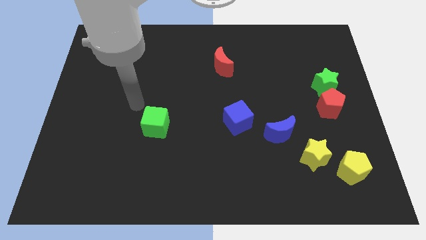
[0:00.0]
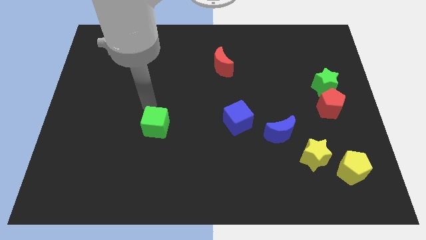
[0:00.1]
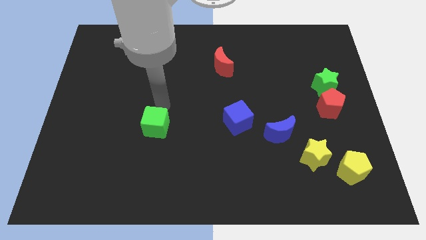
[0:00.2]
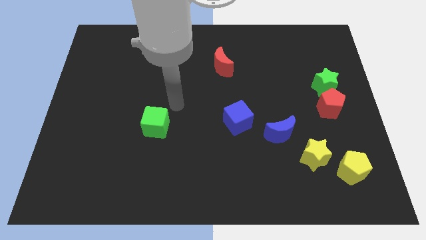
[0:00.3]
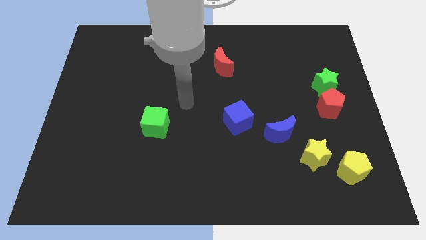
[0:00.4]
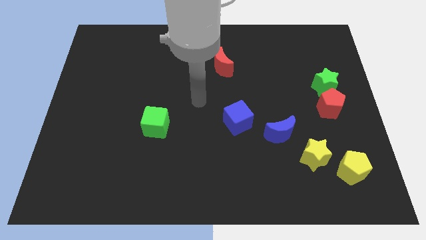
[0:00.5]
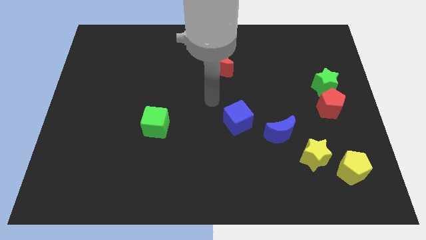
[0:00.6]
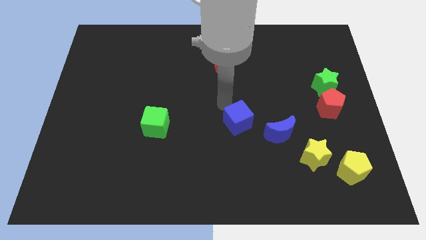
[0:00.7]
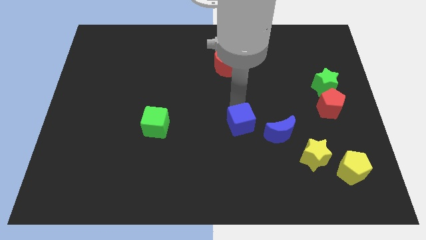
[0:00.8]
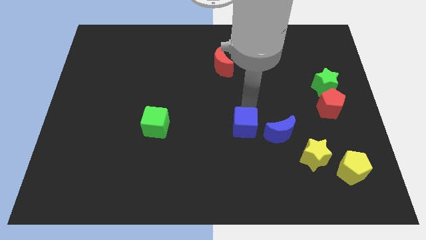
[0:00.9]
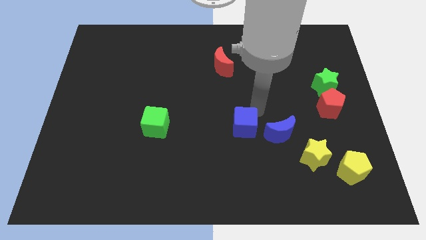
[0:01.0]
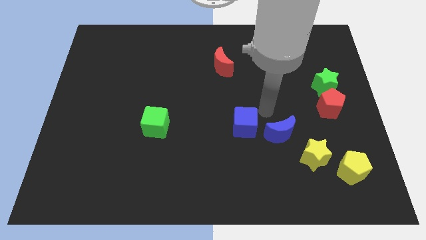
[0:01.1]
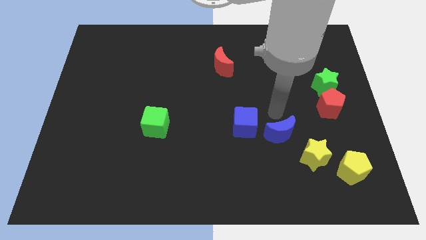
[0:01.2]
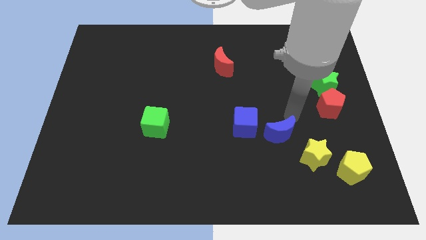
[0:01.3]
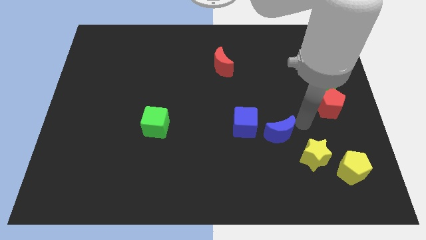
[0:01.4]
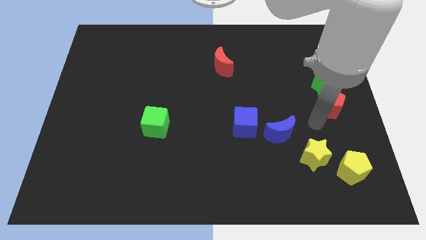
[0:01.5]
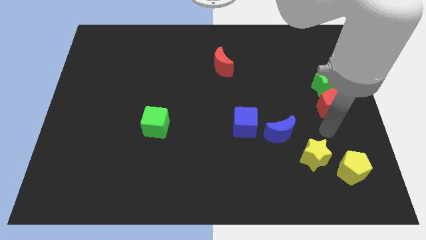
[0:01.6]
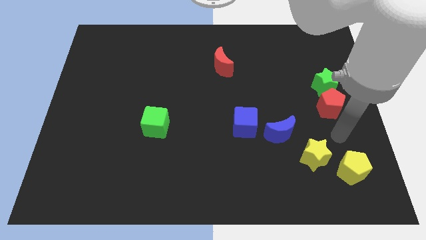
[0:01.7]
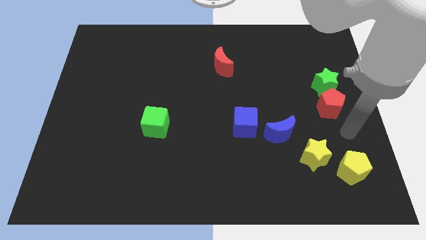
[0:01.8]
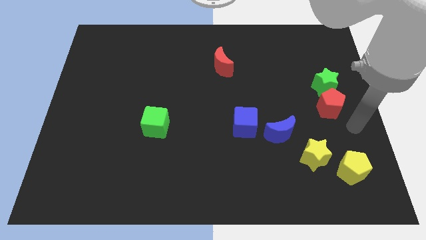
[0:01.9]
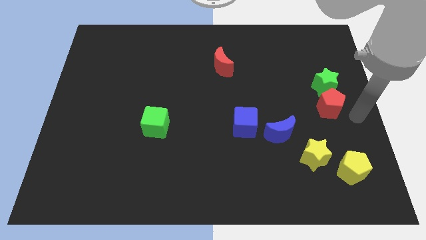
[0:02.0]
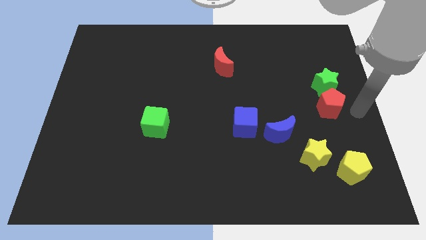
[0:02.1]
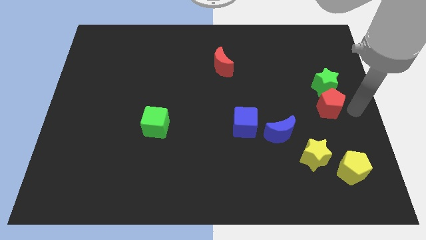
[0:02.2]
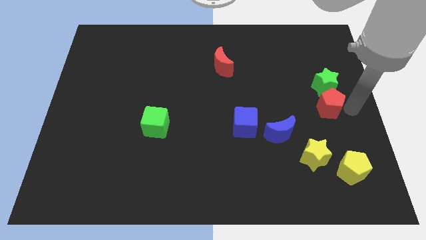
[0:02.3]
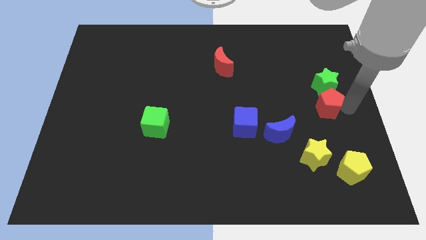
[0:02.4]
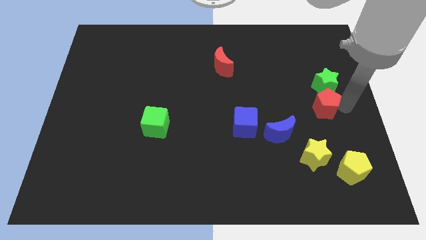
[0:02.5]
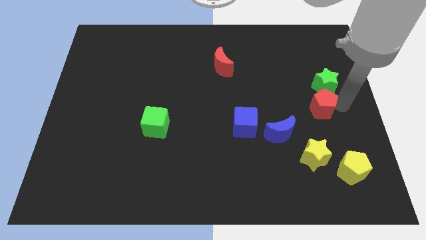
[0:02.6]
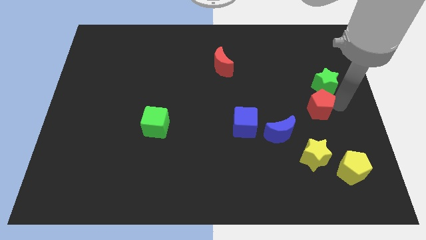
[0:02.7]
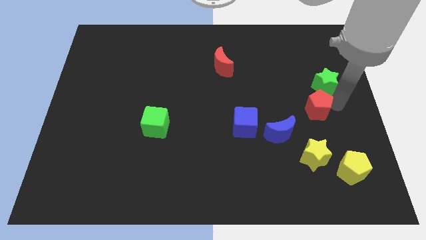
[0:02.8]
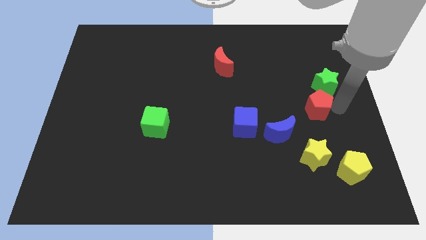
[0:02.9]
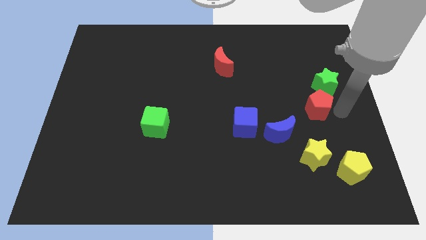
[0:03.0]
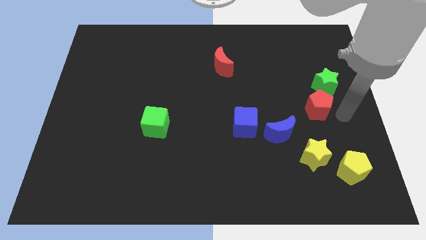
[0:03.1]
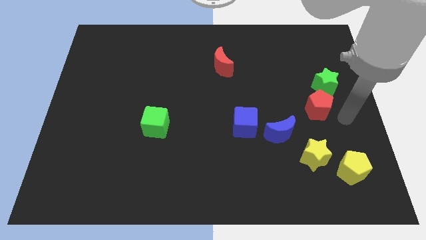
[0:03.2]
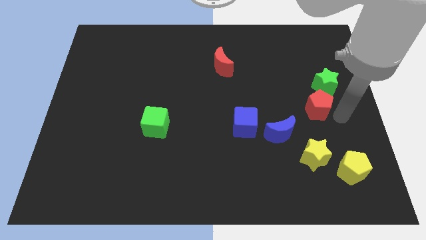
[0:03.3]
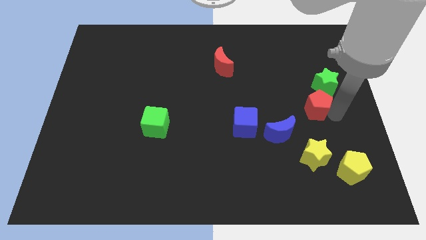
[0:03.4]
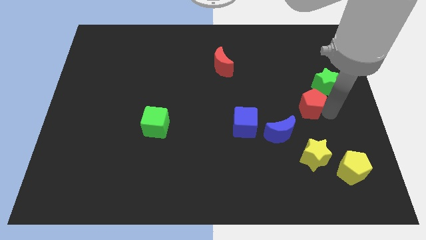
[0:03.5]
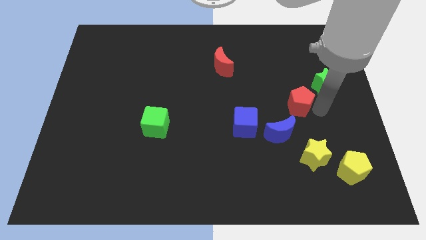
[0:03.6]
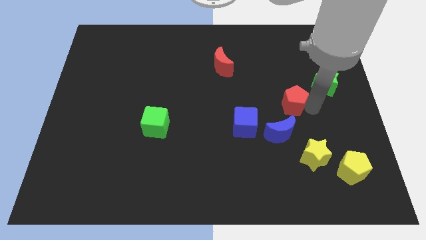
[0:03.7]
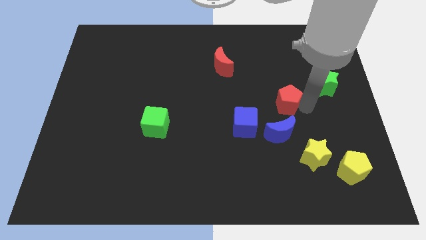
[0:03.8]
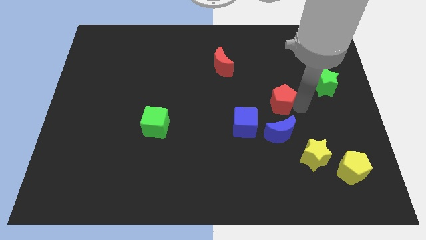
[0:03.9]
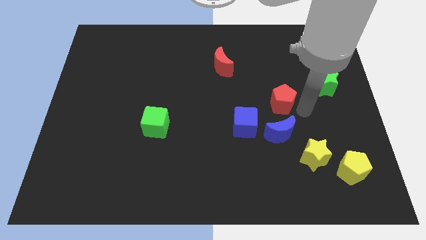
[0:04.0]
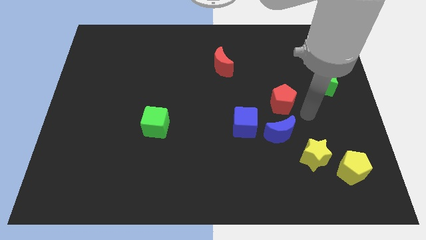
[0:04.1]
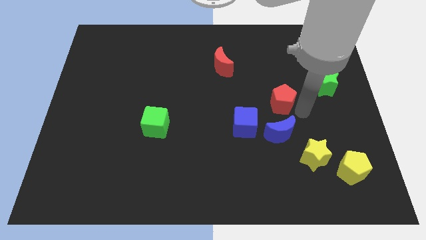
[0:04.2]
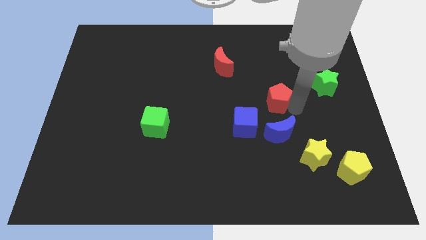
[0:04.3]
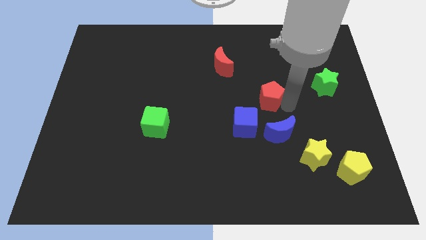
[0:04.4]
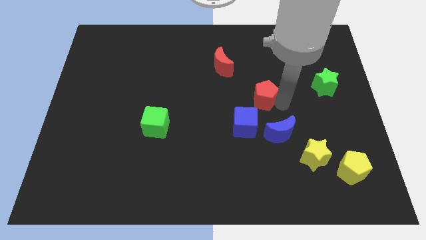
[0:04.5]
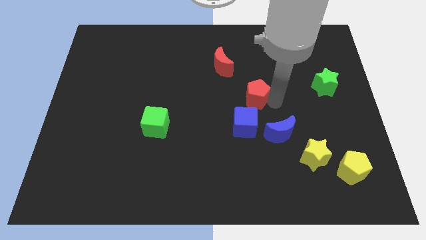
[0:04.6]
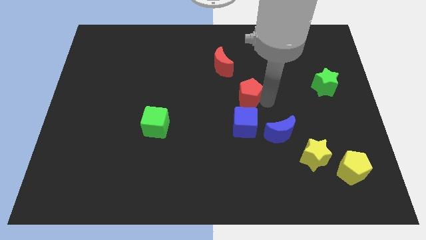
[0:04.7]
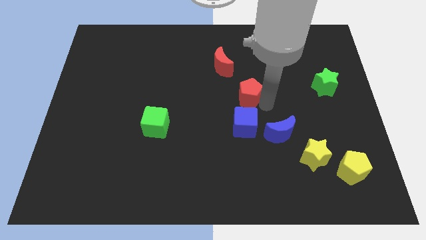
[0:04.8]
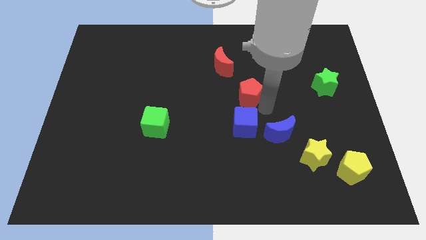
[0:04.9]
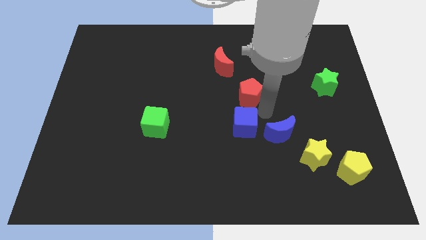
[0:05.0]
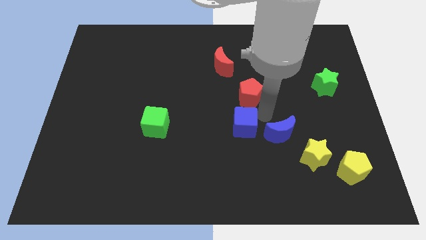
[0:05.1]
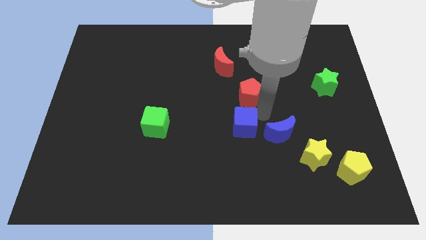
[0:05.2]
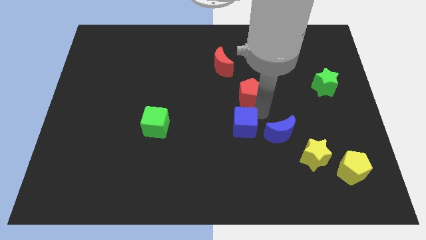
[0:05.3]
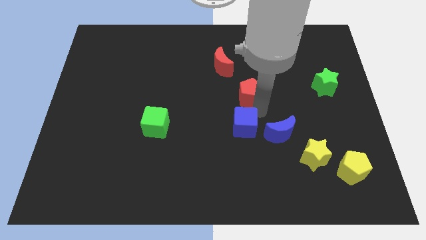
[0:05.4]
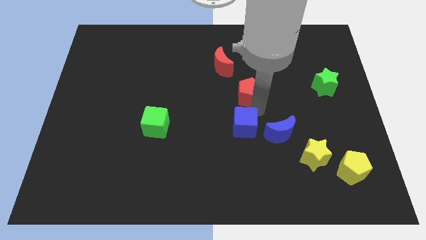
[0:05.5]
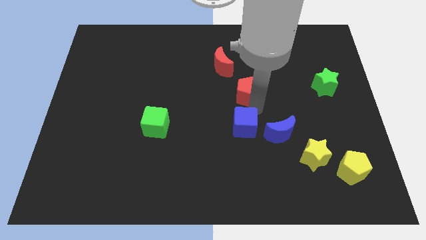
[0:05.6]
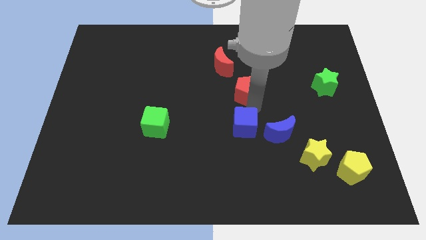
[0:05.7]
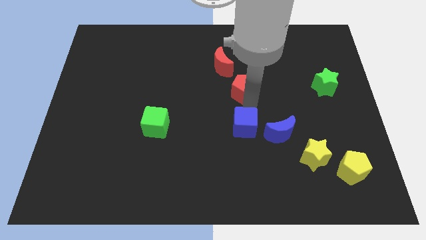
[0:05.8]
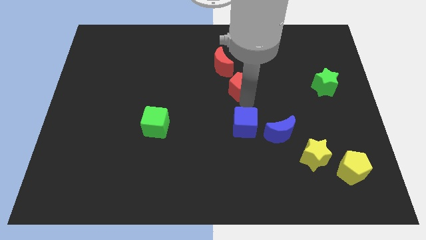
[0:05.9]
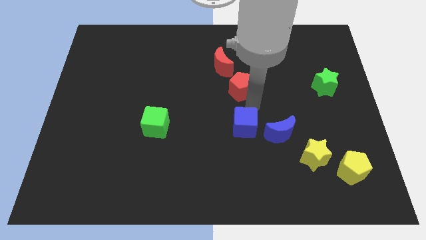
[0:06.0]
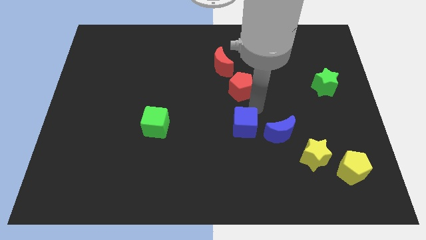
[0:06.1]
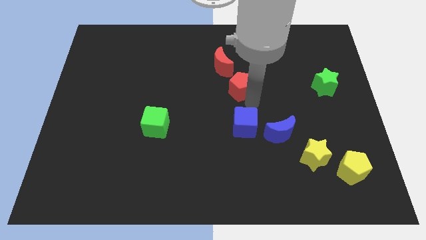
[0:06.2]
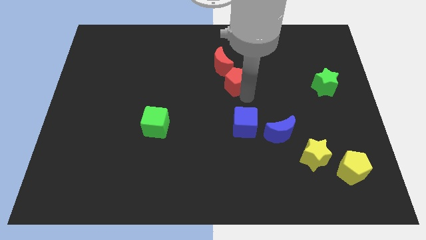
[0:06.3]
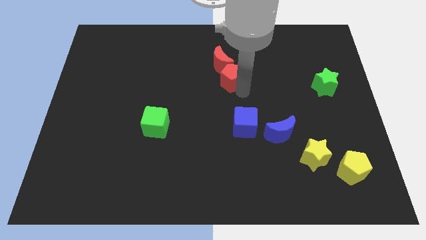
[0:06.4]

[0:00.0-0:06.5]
slide the red pentagon to the red moon
